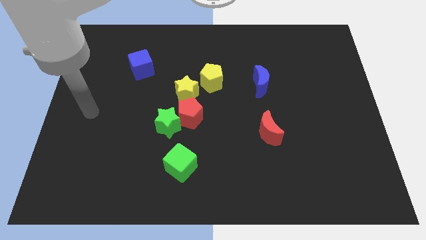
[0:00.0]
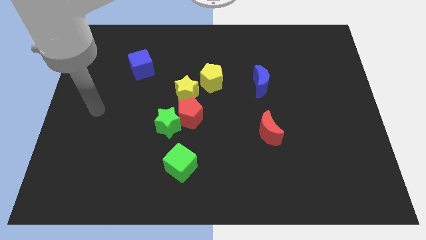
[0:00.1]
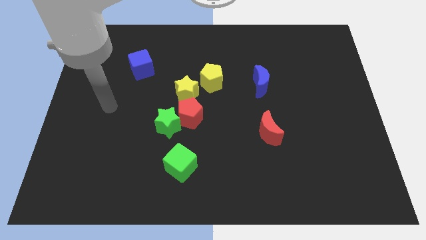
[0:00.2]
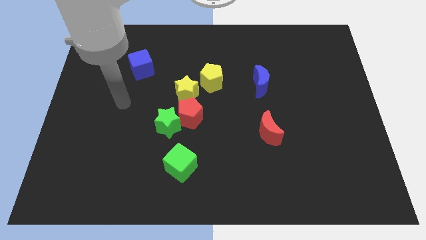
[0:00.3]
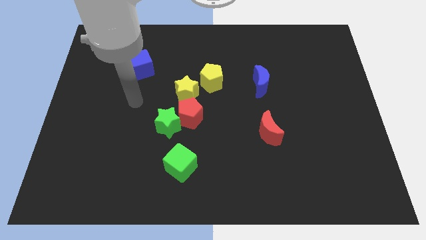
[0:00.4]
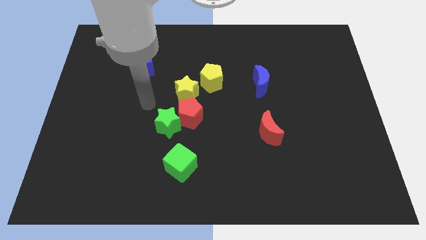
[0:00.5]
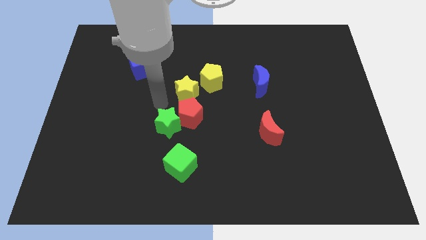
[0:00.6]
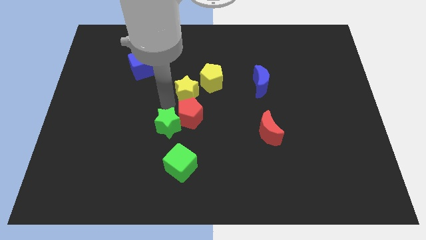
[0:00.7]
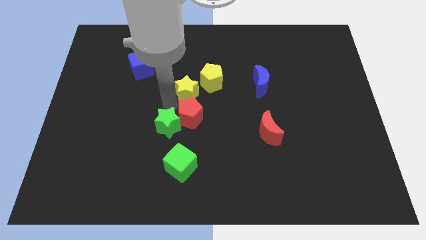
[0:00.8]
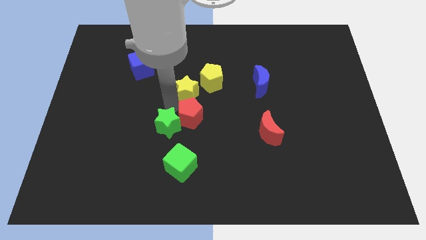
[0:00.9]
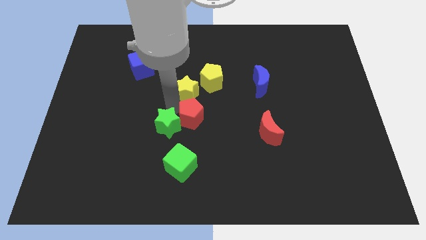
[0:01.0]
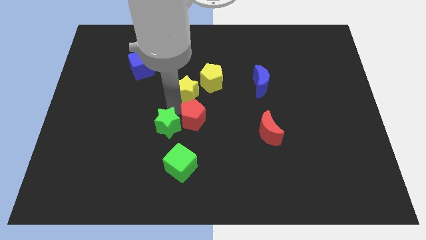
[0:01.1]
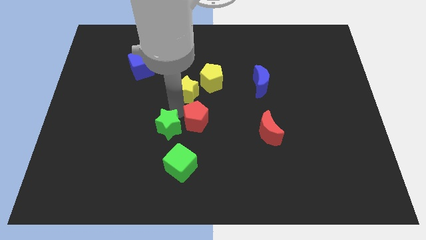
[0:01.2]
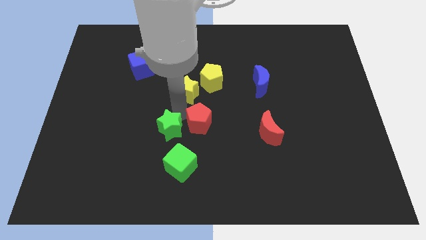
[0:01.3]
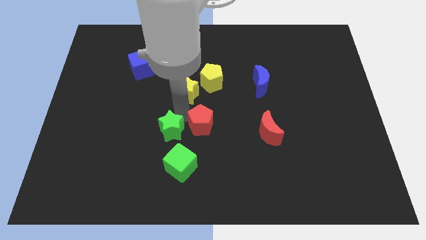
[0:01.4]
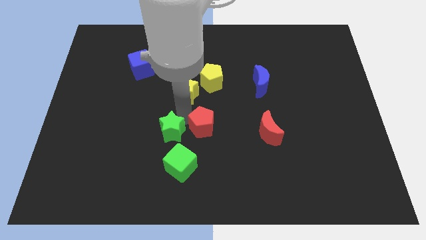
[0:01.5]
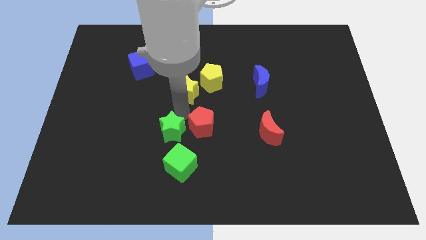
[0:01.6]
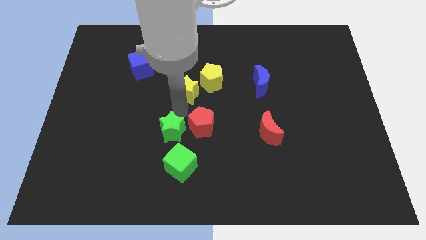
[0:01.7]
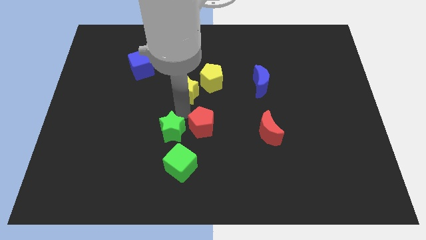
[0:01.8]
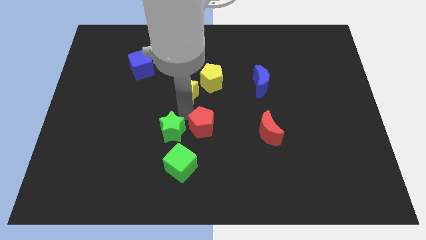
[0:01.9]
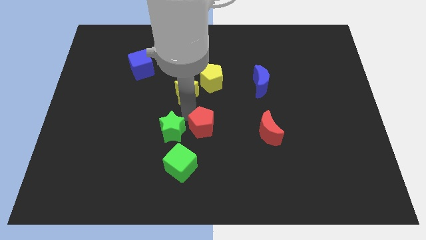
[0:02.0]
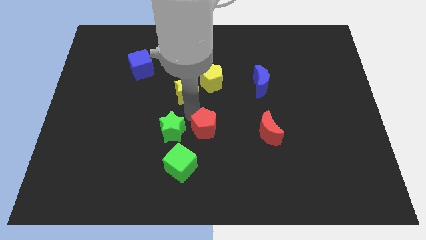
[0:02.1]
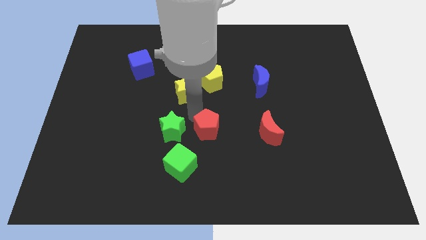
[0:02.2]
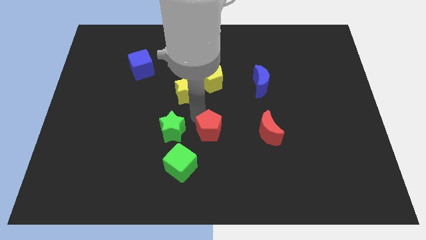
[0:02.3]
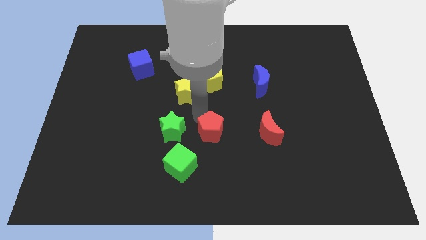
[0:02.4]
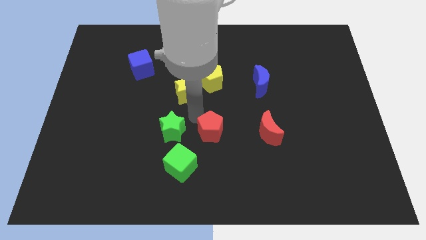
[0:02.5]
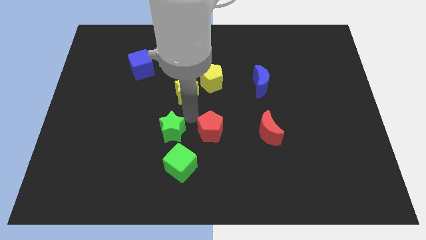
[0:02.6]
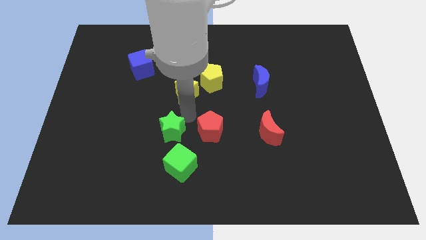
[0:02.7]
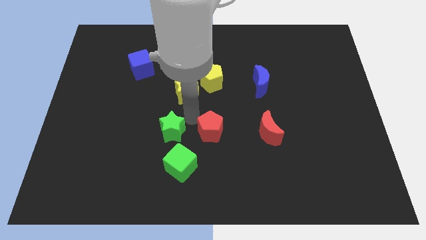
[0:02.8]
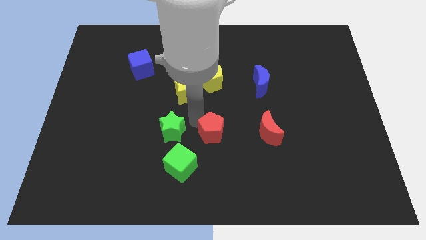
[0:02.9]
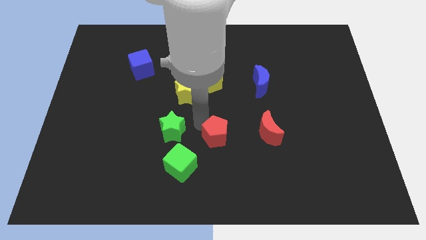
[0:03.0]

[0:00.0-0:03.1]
separate the red pentagon from the green star and yellow star

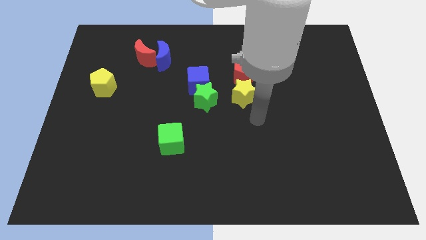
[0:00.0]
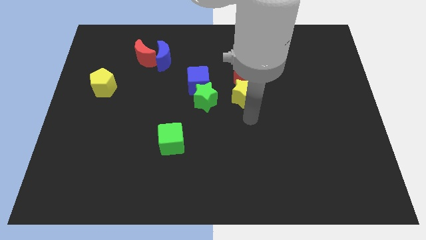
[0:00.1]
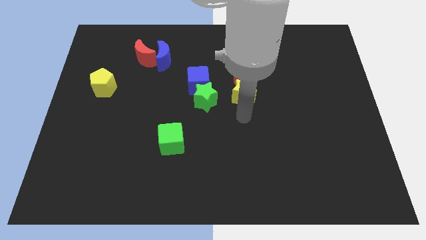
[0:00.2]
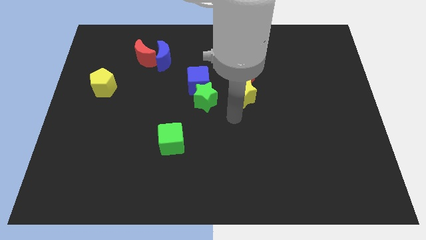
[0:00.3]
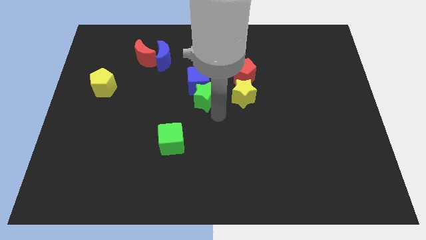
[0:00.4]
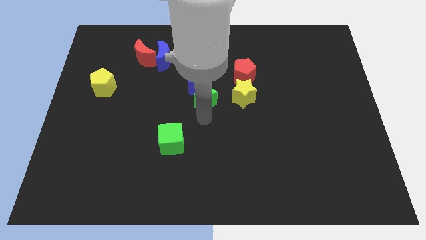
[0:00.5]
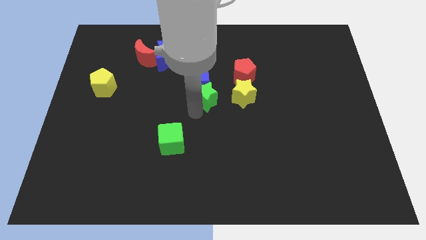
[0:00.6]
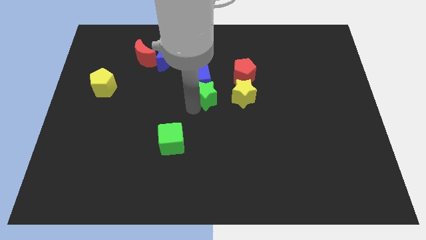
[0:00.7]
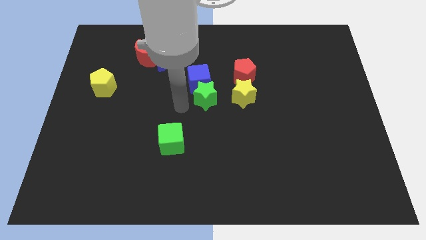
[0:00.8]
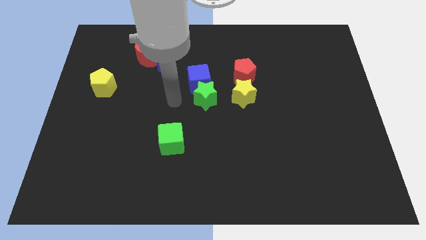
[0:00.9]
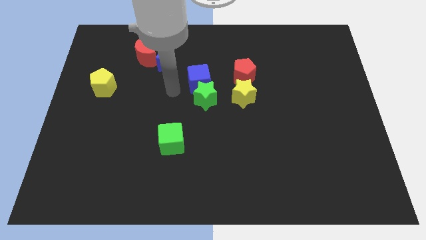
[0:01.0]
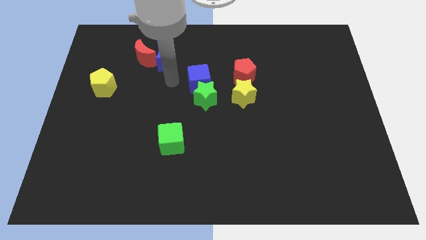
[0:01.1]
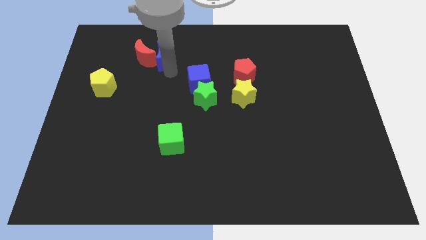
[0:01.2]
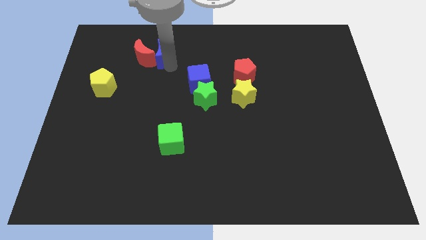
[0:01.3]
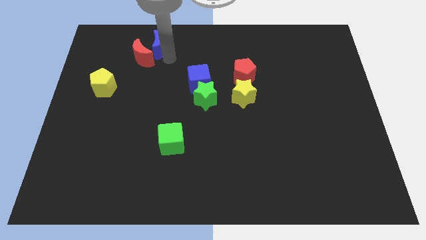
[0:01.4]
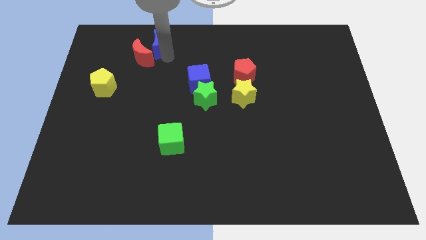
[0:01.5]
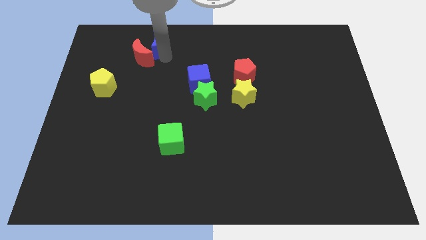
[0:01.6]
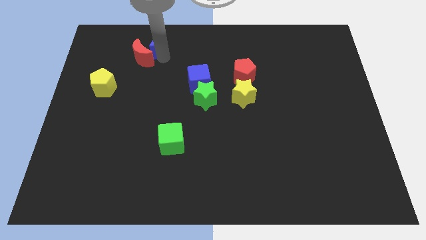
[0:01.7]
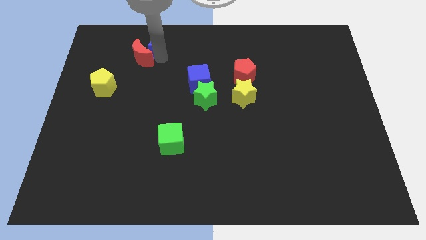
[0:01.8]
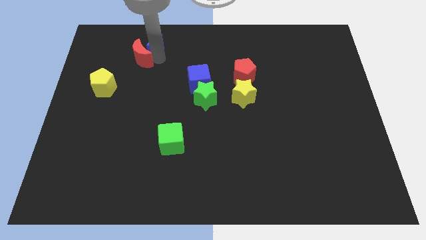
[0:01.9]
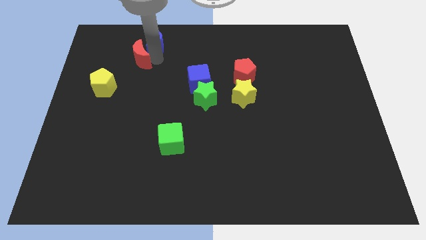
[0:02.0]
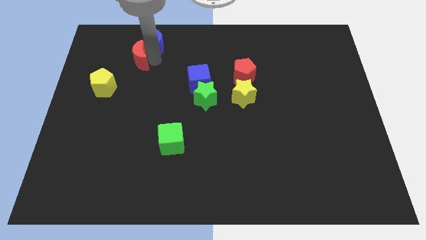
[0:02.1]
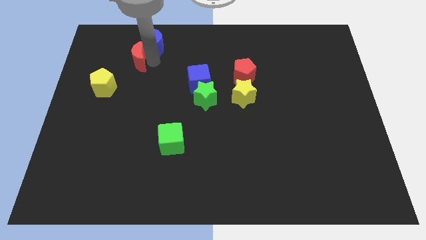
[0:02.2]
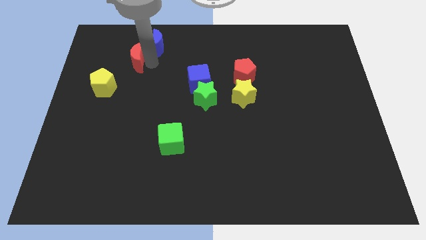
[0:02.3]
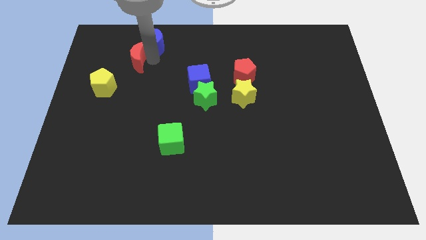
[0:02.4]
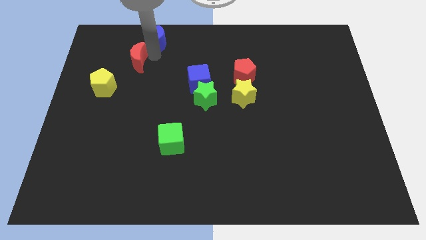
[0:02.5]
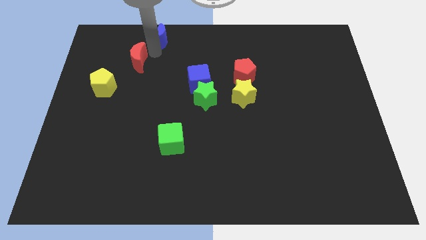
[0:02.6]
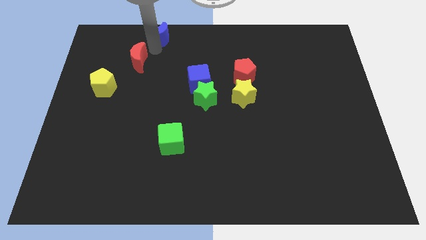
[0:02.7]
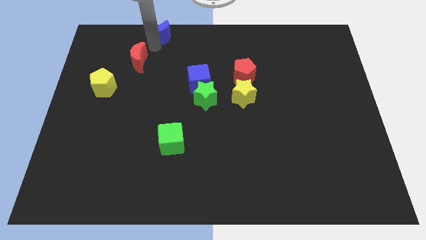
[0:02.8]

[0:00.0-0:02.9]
separate the red moon from the blue moon

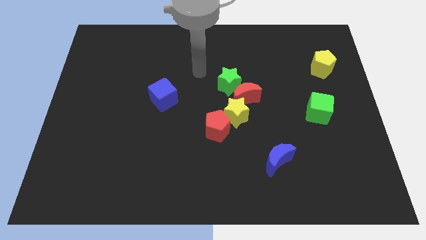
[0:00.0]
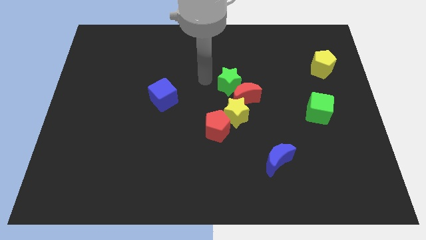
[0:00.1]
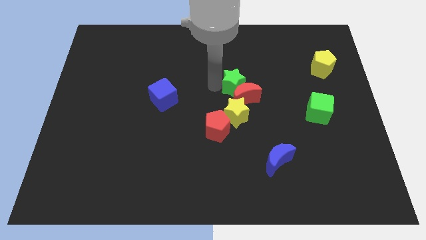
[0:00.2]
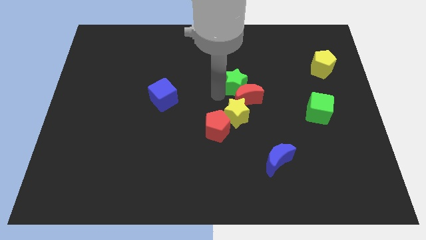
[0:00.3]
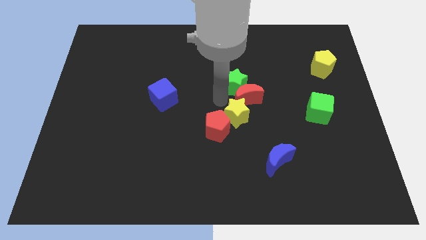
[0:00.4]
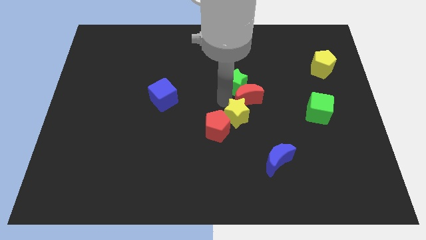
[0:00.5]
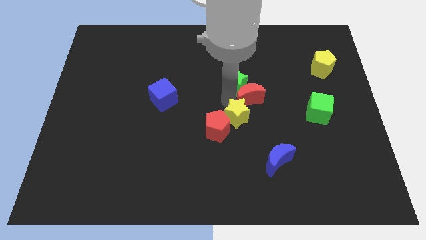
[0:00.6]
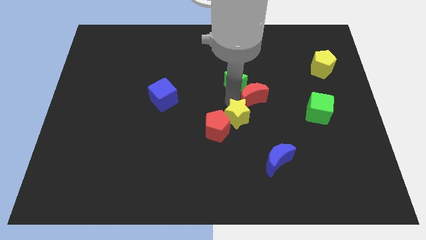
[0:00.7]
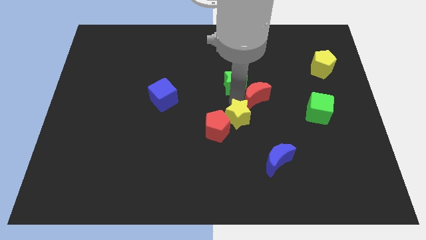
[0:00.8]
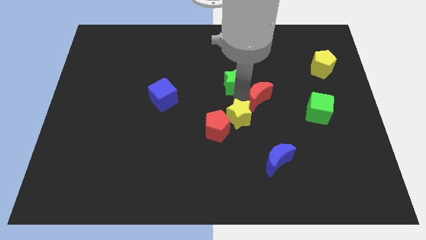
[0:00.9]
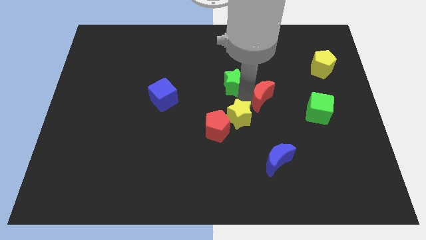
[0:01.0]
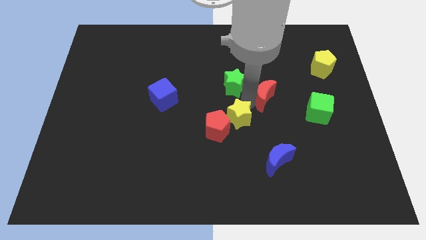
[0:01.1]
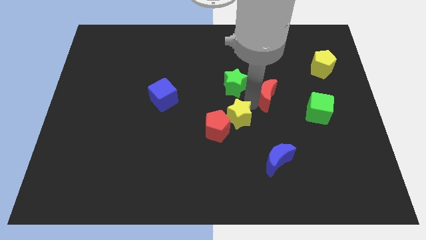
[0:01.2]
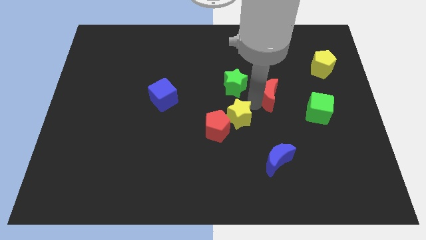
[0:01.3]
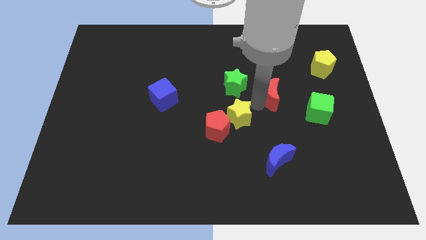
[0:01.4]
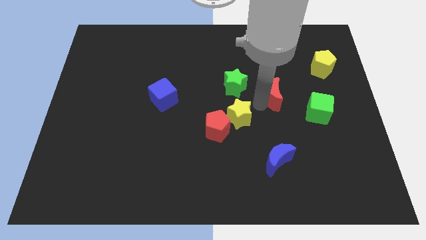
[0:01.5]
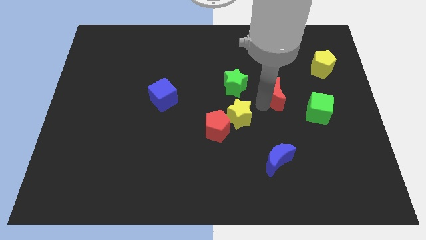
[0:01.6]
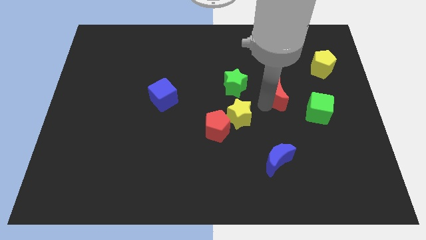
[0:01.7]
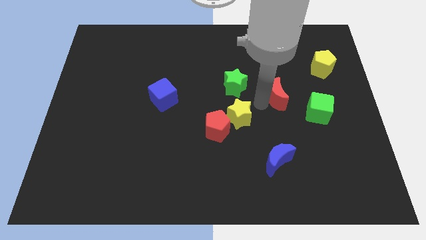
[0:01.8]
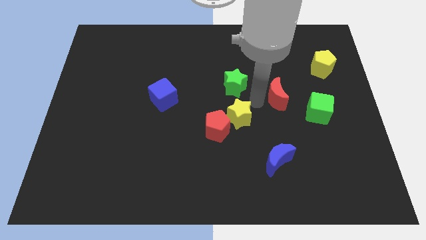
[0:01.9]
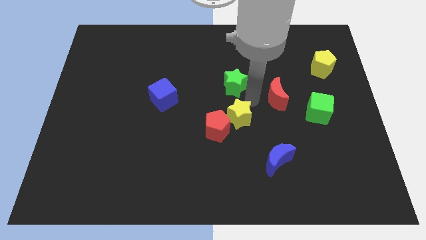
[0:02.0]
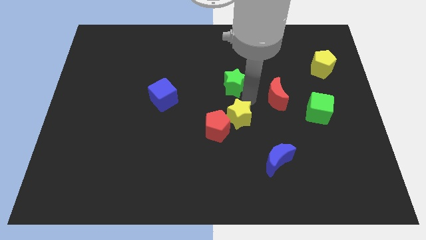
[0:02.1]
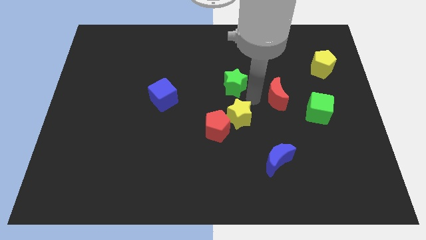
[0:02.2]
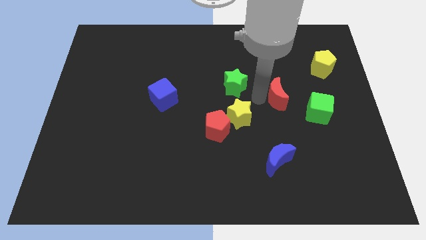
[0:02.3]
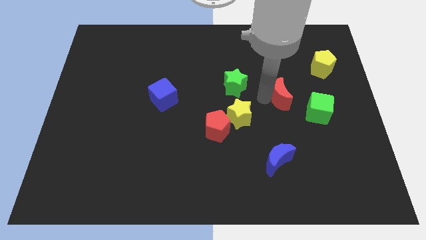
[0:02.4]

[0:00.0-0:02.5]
pull the red moon apart from the green star and yellow star

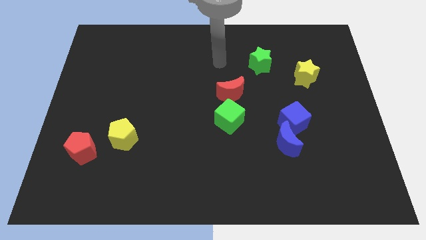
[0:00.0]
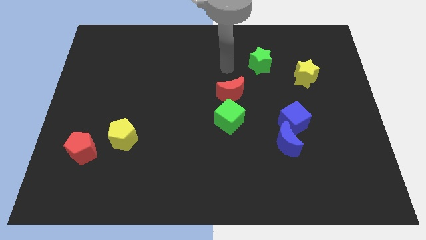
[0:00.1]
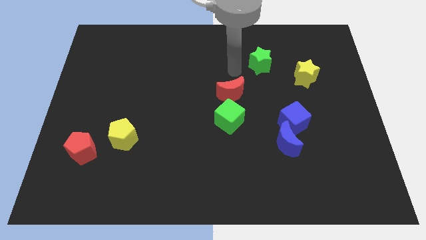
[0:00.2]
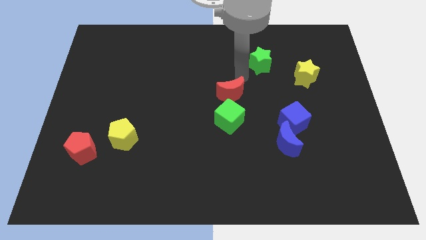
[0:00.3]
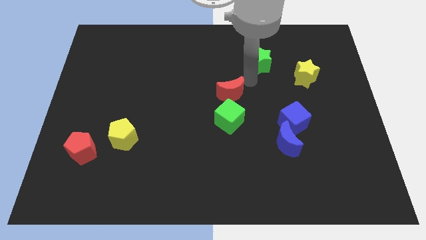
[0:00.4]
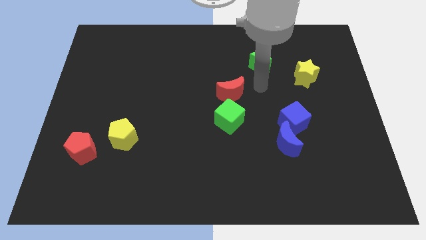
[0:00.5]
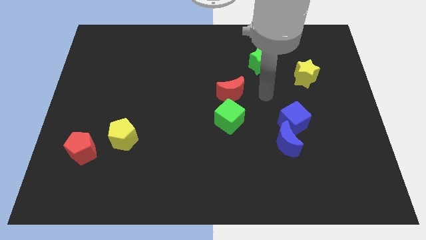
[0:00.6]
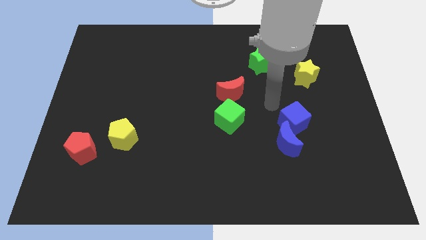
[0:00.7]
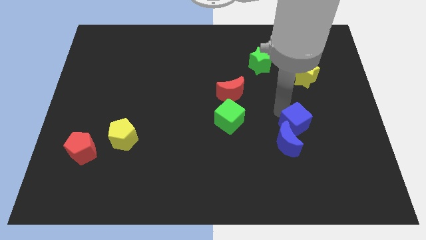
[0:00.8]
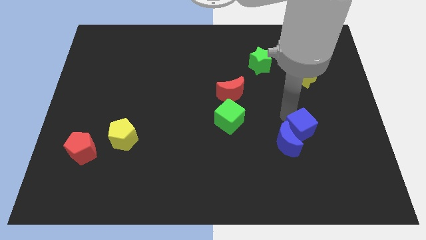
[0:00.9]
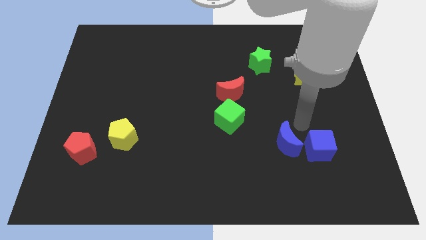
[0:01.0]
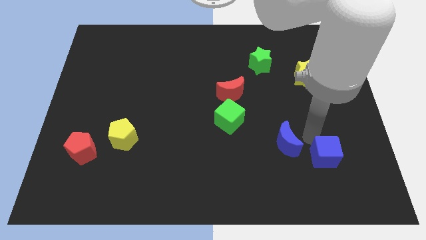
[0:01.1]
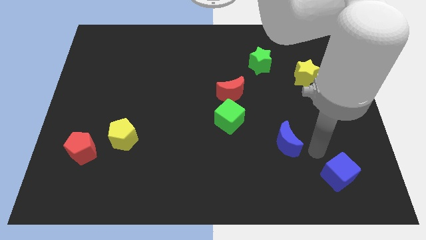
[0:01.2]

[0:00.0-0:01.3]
pull the blue moon apart from the blue cube
